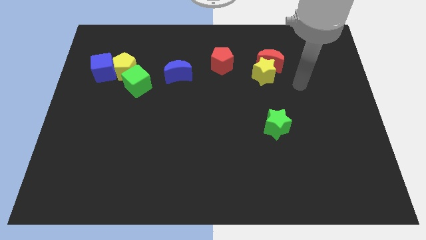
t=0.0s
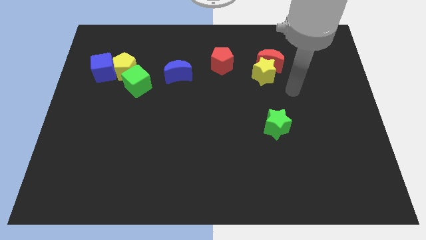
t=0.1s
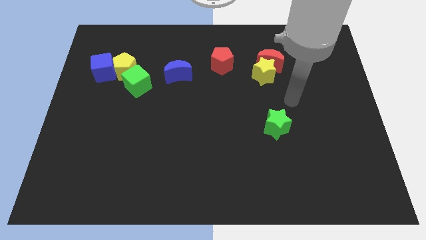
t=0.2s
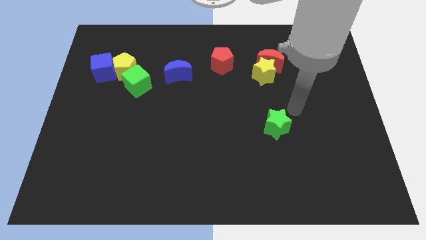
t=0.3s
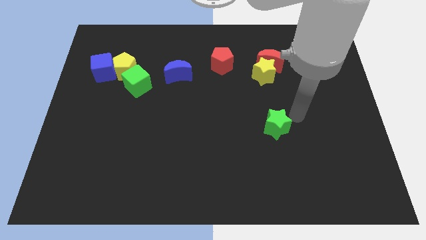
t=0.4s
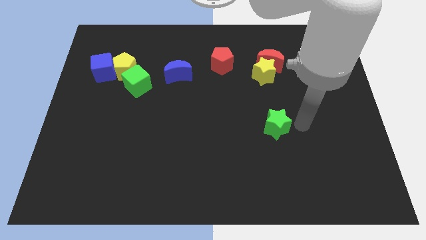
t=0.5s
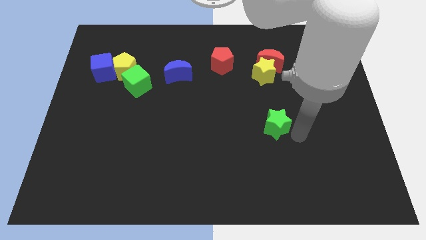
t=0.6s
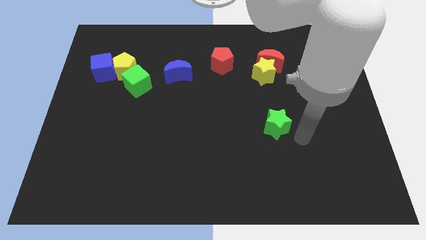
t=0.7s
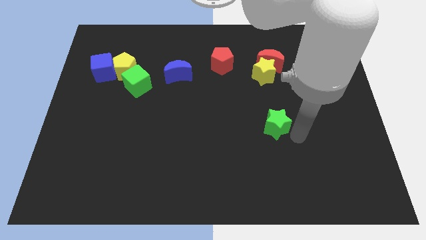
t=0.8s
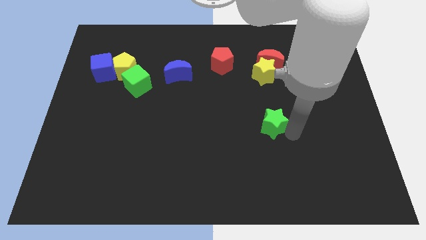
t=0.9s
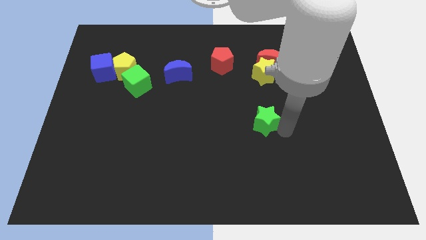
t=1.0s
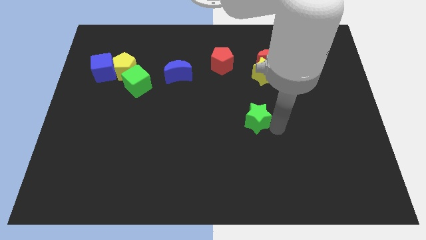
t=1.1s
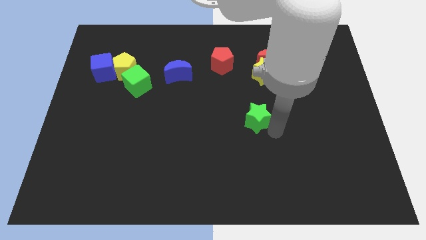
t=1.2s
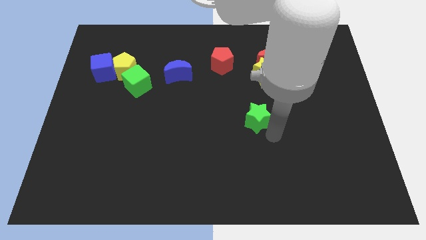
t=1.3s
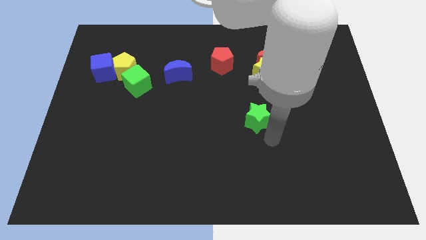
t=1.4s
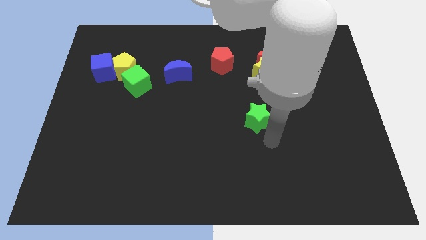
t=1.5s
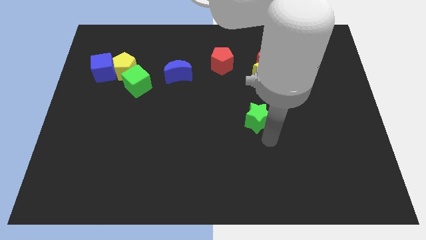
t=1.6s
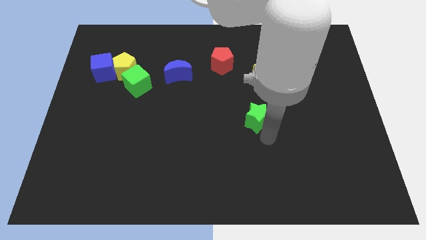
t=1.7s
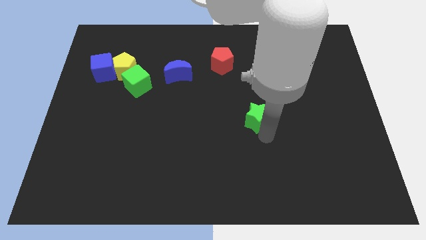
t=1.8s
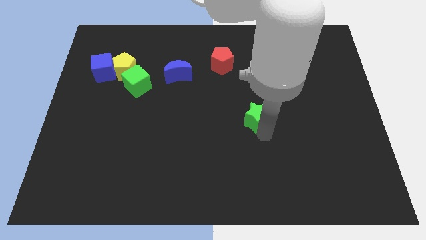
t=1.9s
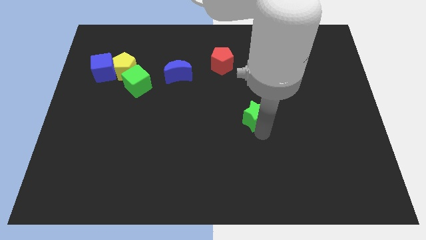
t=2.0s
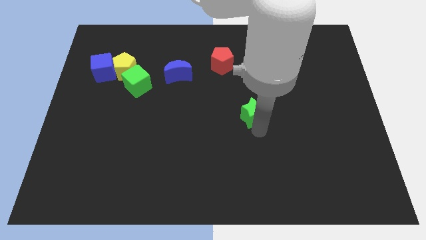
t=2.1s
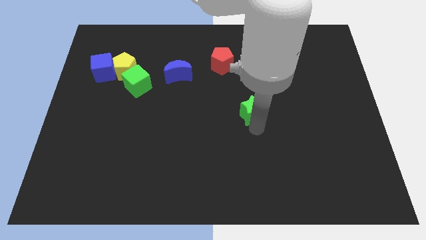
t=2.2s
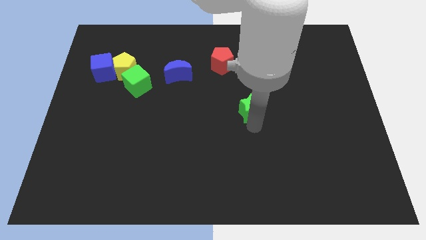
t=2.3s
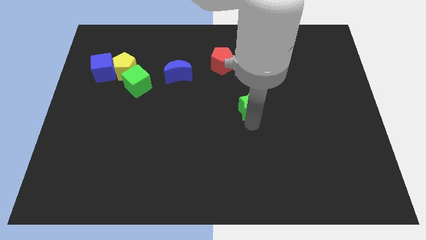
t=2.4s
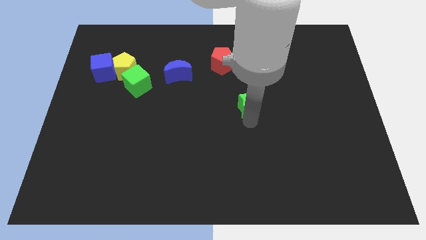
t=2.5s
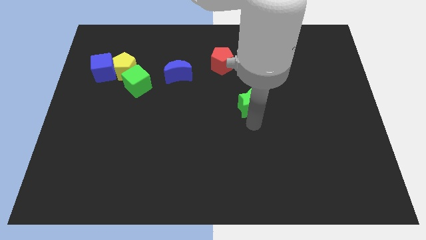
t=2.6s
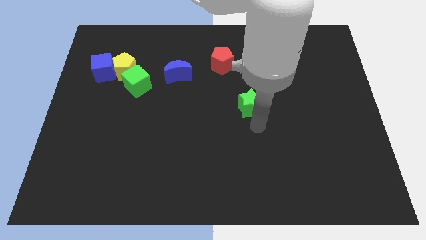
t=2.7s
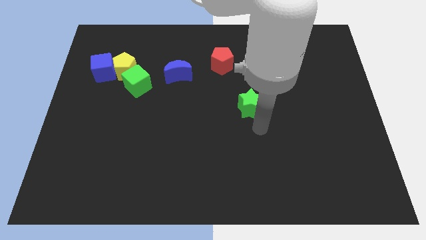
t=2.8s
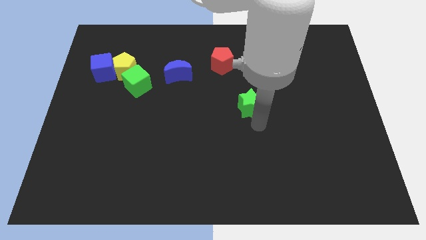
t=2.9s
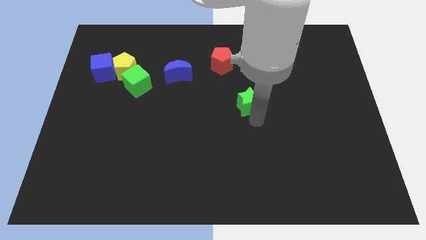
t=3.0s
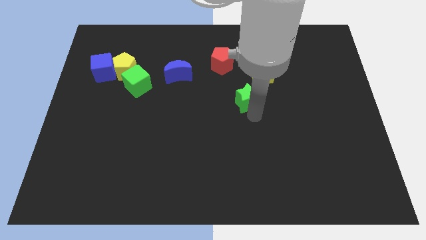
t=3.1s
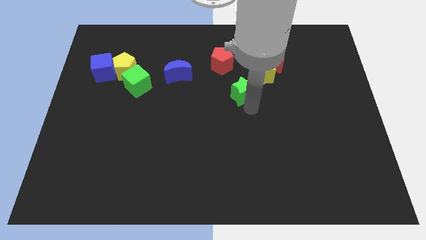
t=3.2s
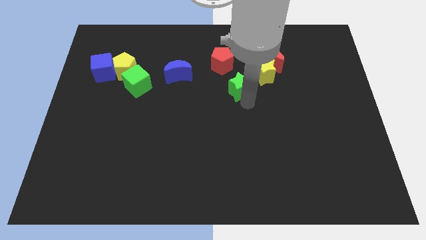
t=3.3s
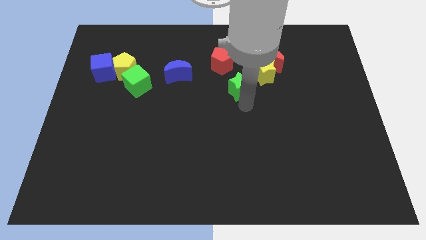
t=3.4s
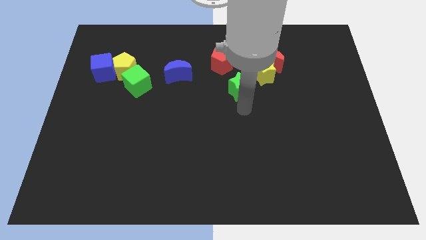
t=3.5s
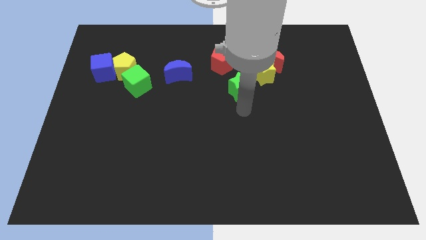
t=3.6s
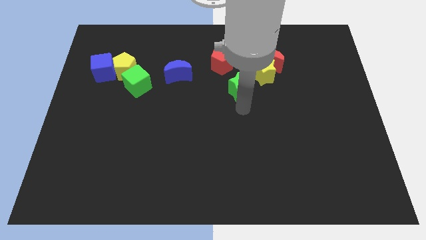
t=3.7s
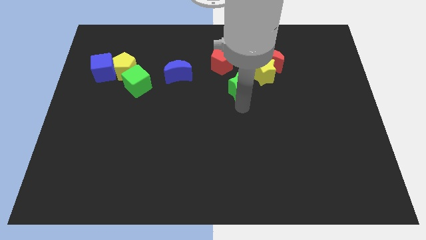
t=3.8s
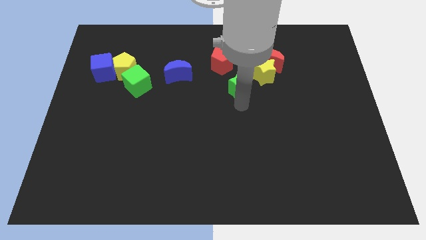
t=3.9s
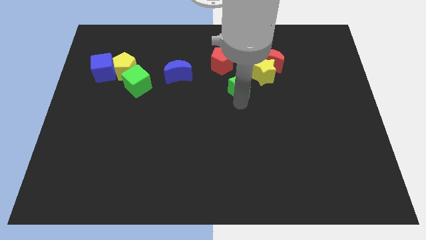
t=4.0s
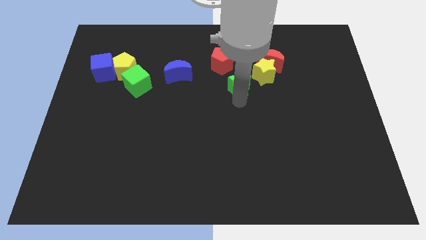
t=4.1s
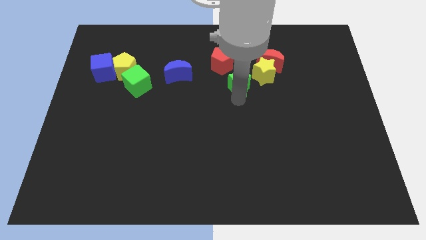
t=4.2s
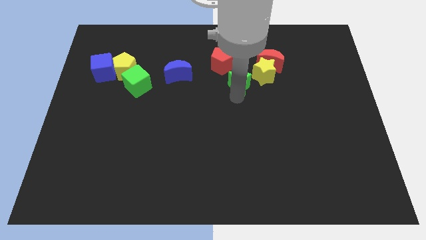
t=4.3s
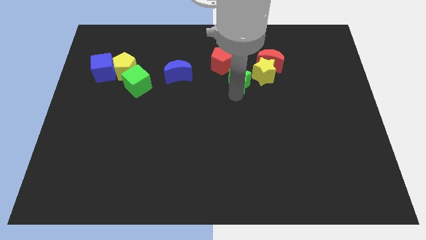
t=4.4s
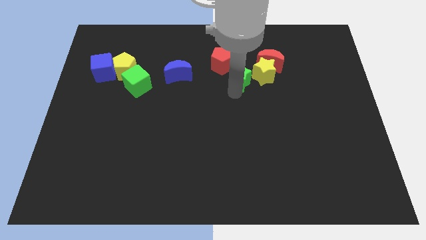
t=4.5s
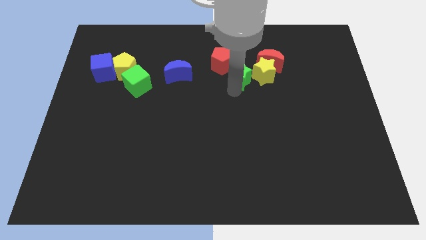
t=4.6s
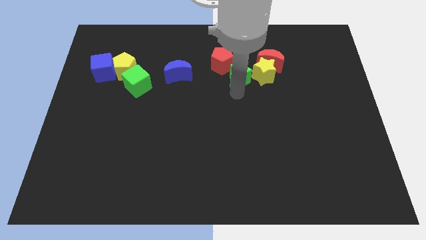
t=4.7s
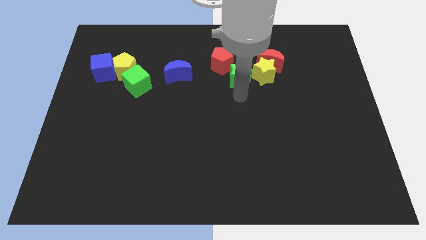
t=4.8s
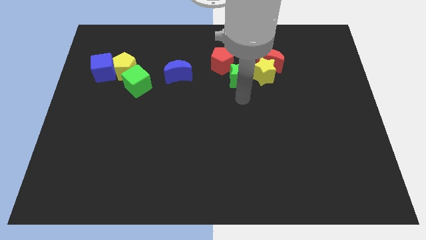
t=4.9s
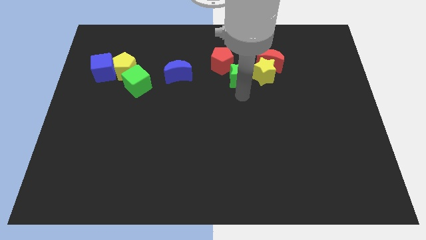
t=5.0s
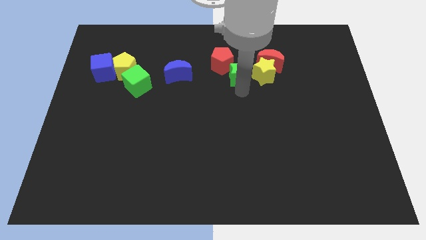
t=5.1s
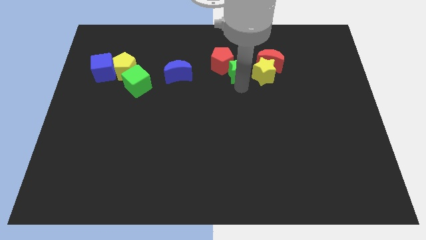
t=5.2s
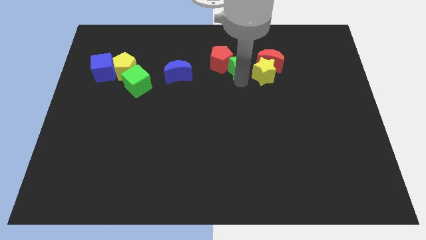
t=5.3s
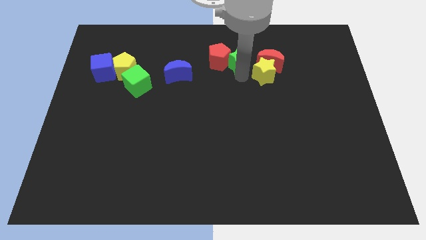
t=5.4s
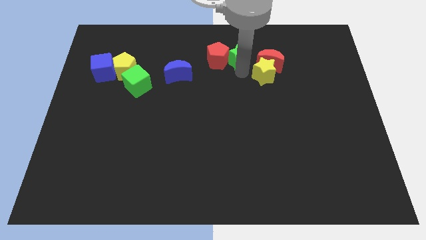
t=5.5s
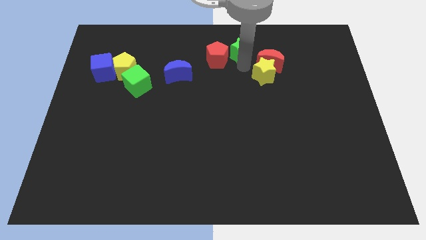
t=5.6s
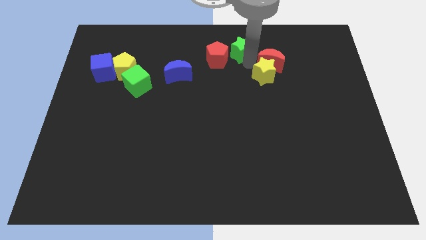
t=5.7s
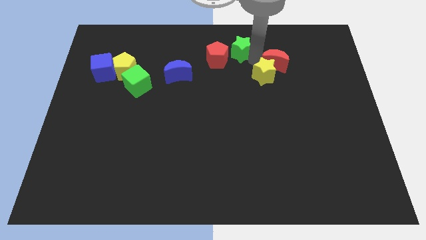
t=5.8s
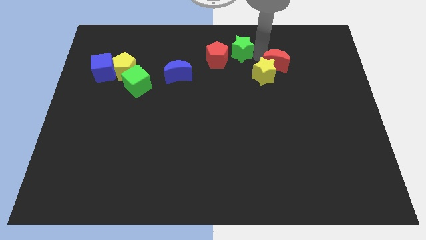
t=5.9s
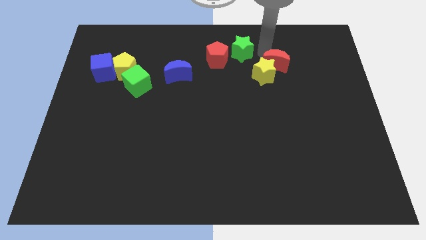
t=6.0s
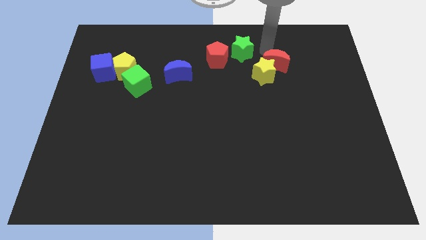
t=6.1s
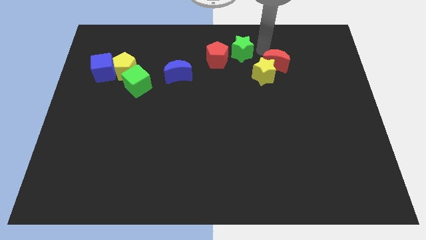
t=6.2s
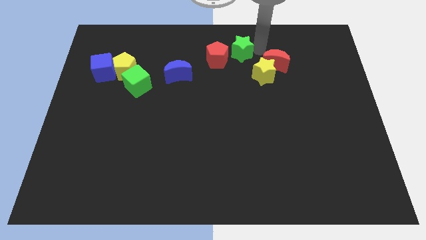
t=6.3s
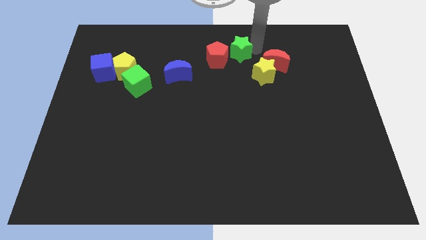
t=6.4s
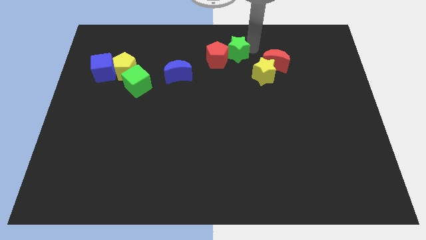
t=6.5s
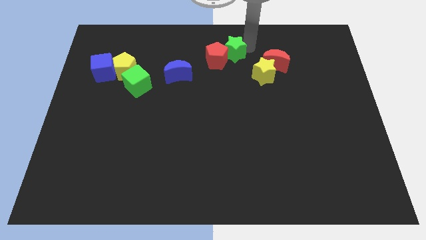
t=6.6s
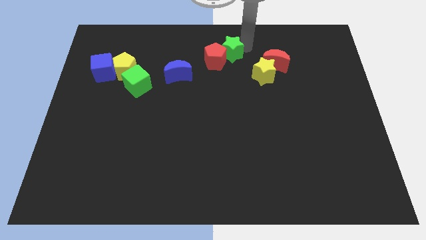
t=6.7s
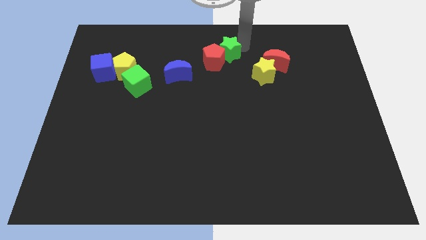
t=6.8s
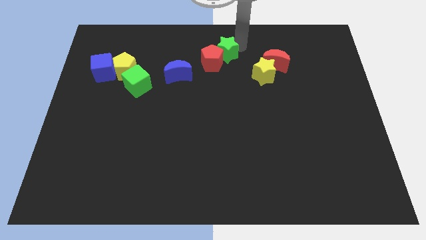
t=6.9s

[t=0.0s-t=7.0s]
move the green star upwards and to the left diagonally

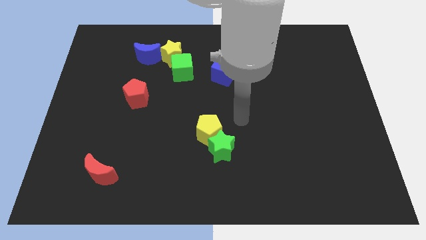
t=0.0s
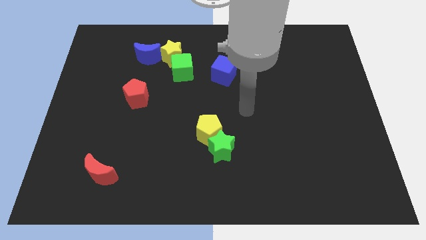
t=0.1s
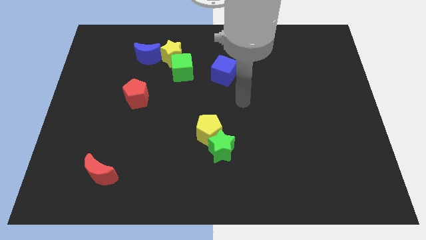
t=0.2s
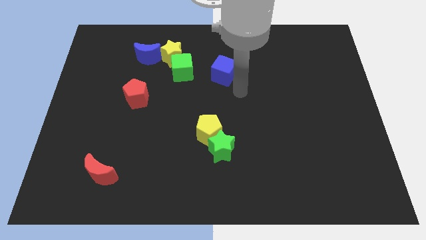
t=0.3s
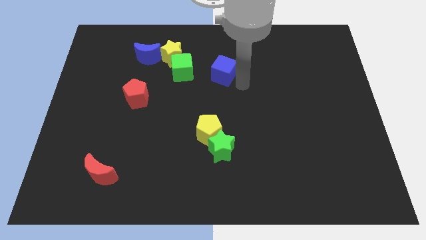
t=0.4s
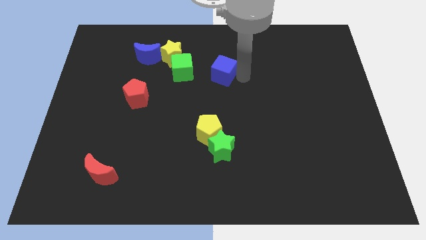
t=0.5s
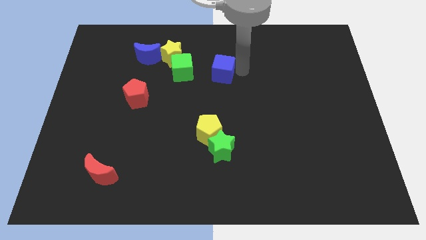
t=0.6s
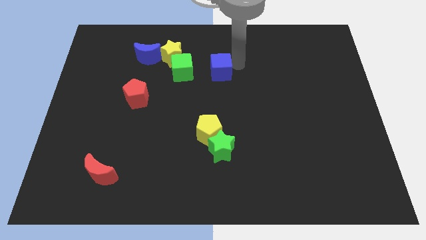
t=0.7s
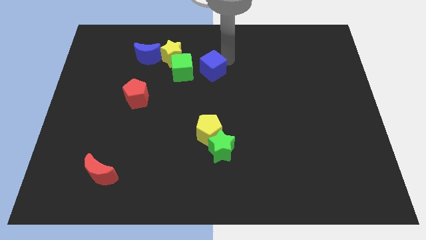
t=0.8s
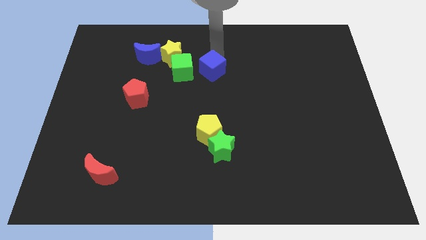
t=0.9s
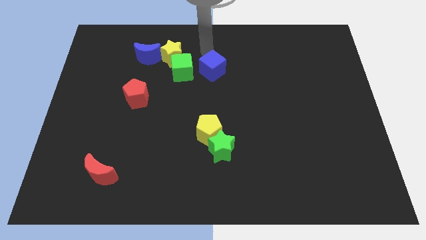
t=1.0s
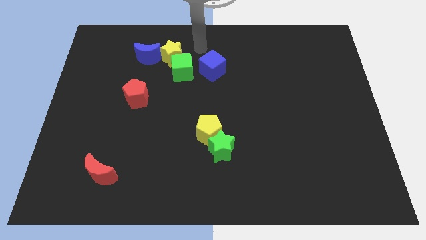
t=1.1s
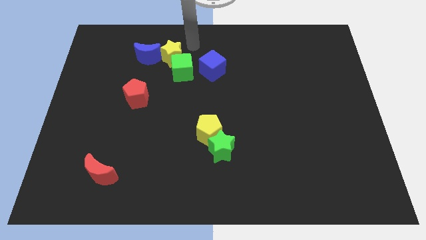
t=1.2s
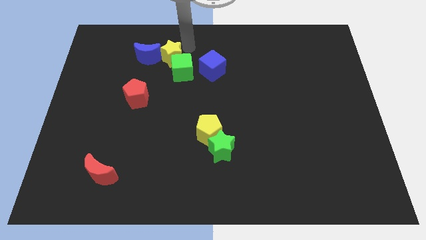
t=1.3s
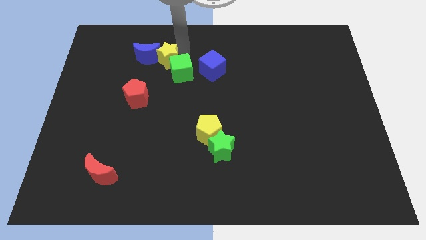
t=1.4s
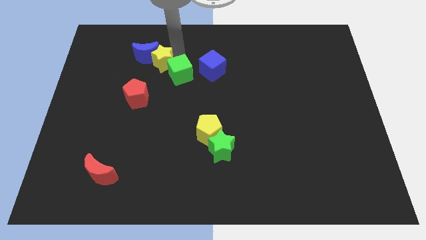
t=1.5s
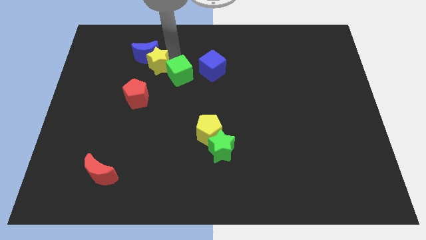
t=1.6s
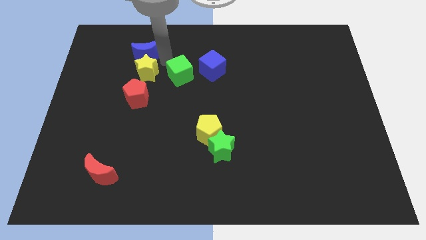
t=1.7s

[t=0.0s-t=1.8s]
slightly push the yellow star down and then to the left
